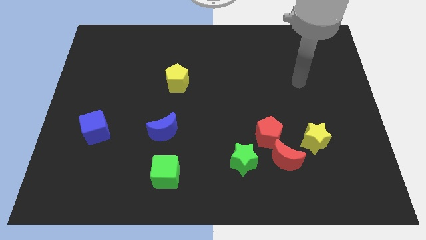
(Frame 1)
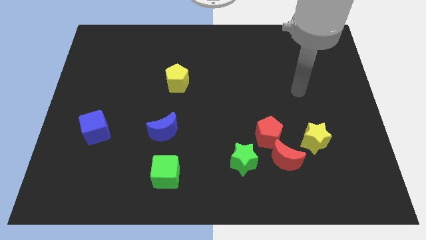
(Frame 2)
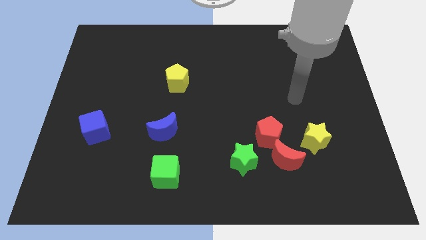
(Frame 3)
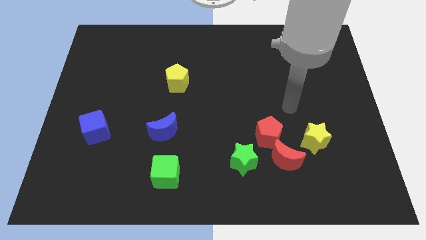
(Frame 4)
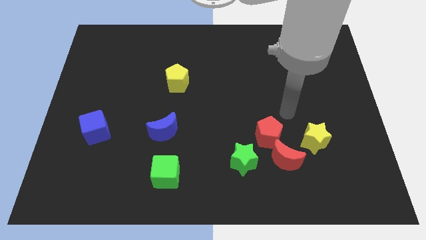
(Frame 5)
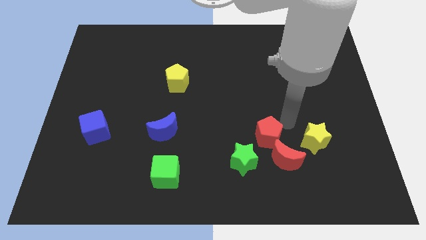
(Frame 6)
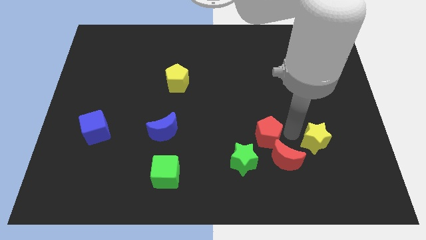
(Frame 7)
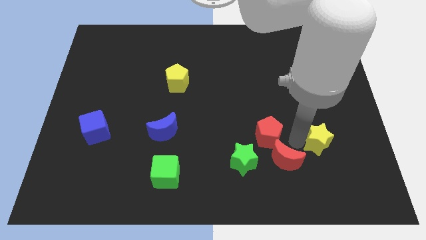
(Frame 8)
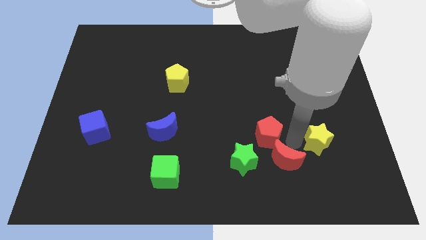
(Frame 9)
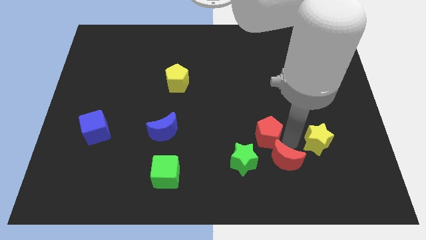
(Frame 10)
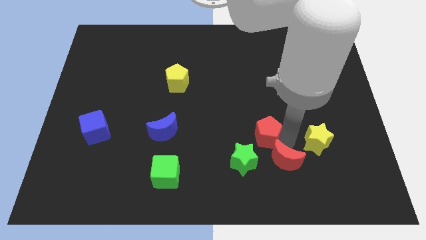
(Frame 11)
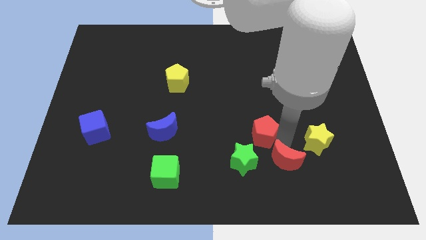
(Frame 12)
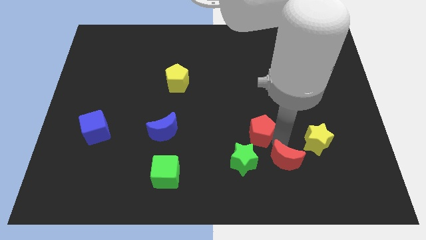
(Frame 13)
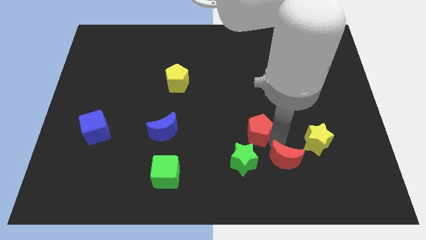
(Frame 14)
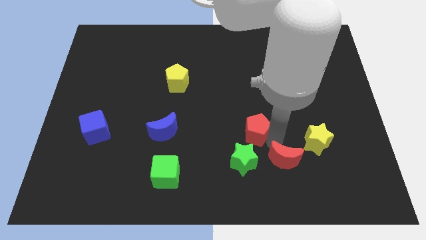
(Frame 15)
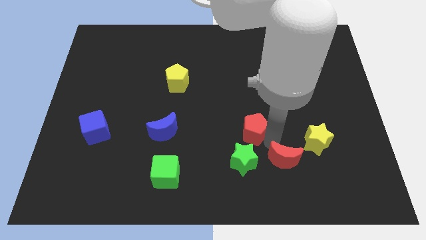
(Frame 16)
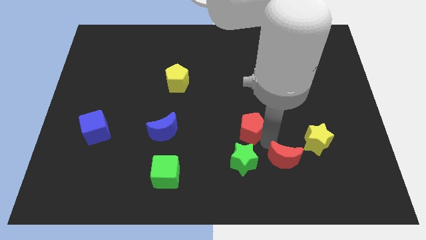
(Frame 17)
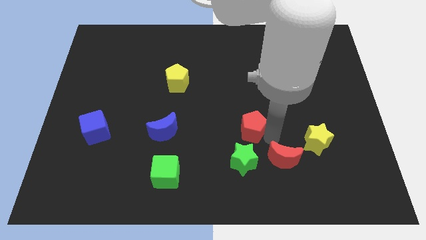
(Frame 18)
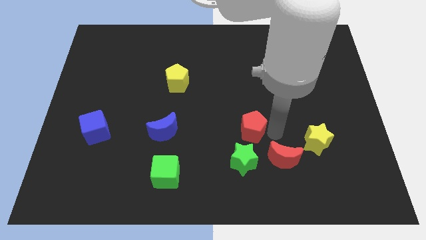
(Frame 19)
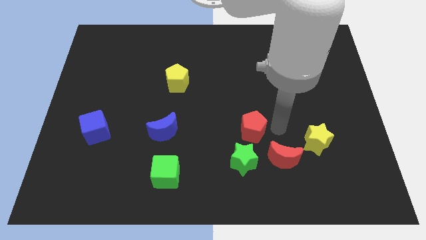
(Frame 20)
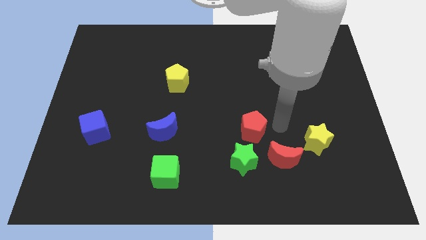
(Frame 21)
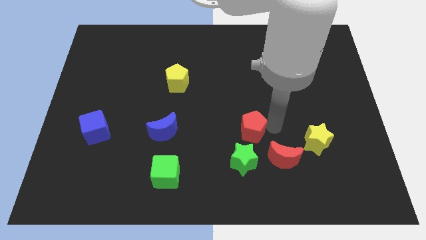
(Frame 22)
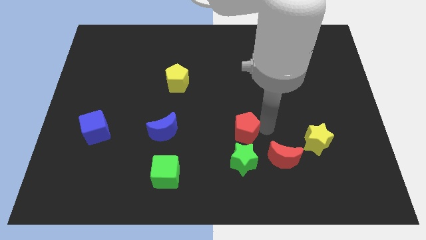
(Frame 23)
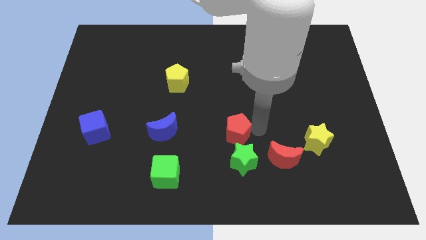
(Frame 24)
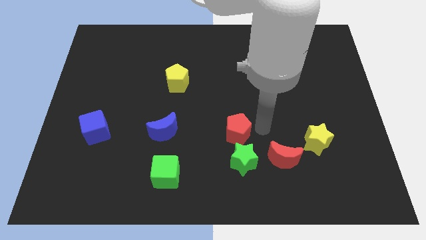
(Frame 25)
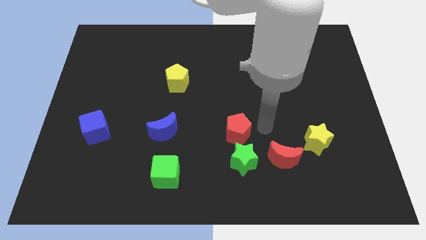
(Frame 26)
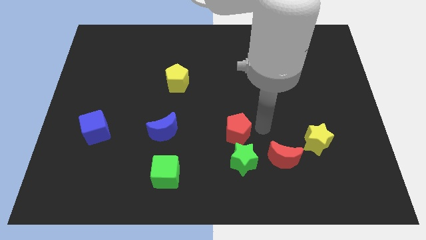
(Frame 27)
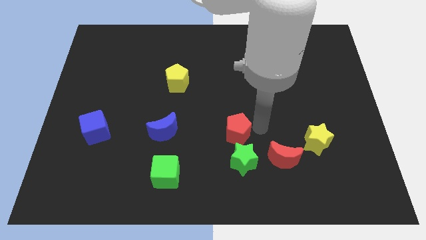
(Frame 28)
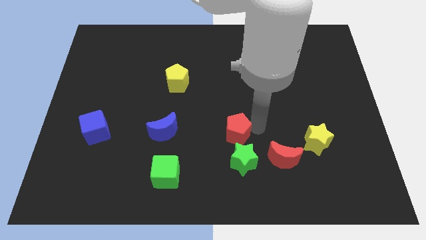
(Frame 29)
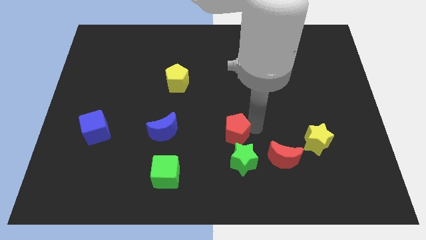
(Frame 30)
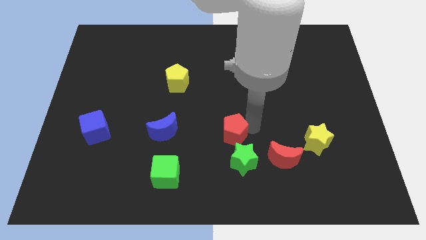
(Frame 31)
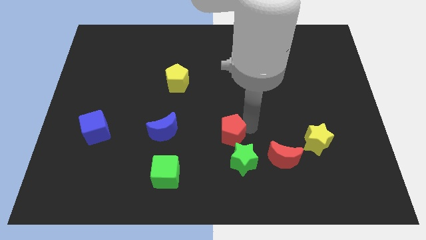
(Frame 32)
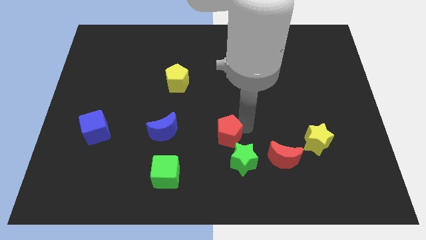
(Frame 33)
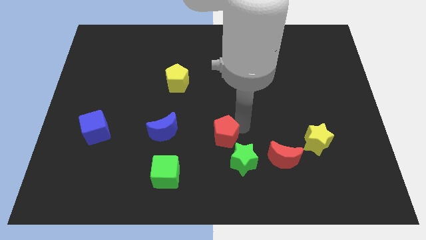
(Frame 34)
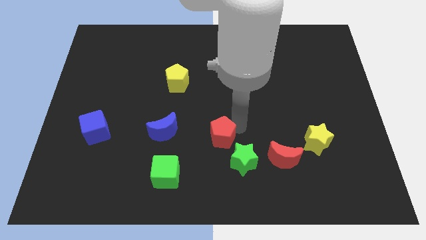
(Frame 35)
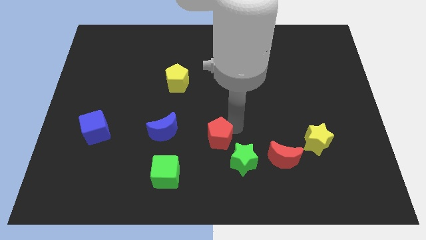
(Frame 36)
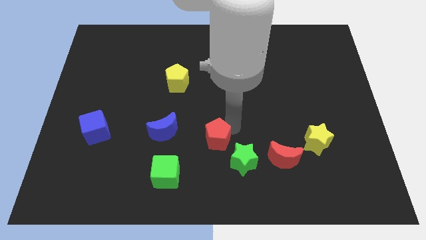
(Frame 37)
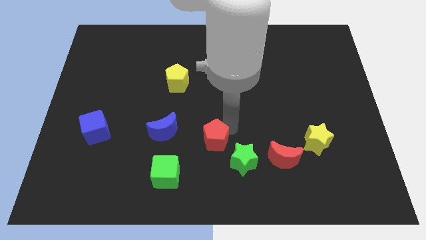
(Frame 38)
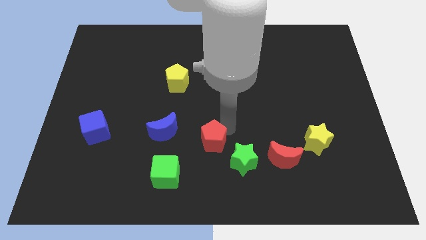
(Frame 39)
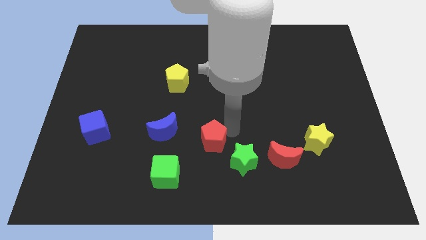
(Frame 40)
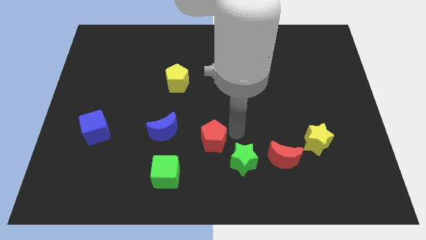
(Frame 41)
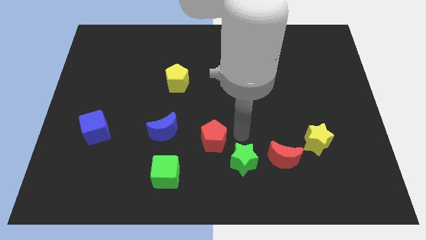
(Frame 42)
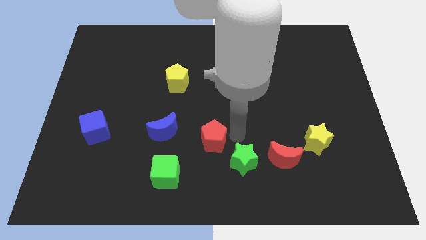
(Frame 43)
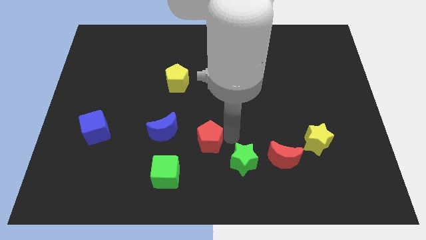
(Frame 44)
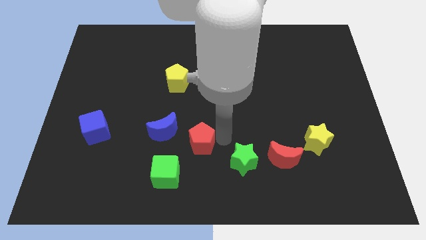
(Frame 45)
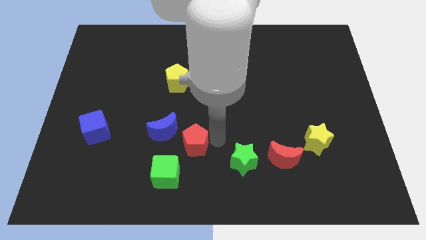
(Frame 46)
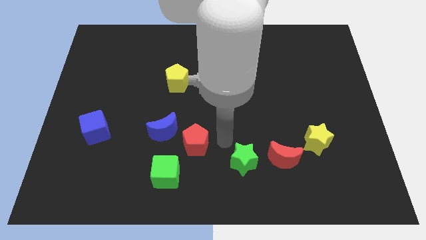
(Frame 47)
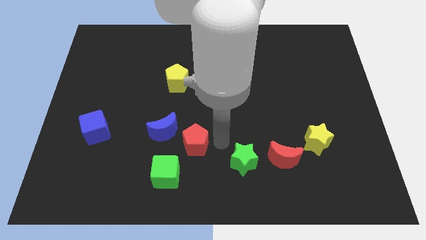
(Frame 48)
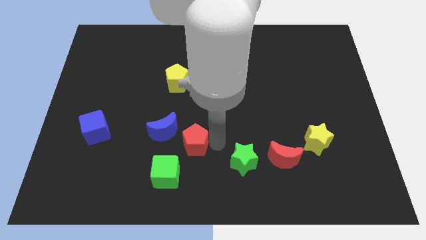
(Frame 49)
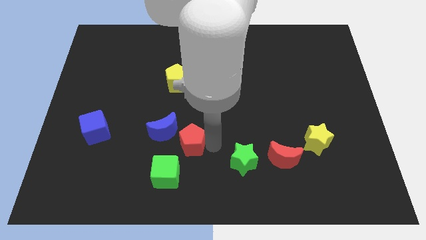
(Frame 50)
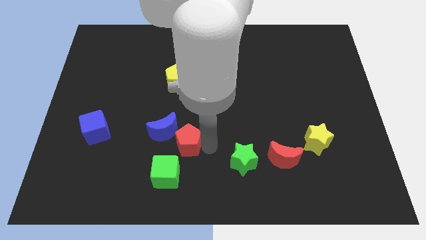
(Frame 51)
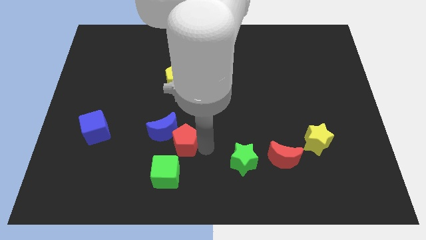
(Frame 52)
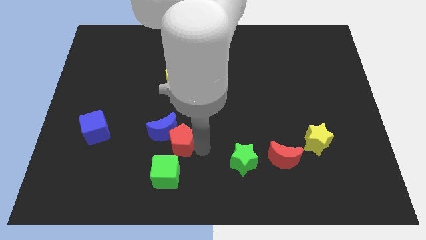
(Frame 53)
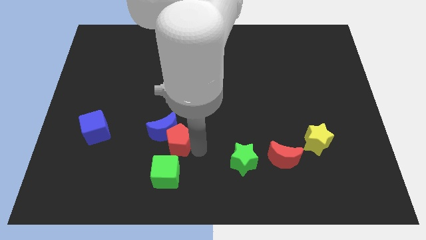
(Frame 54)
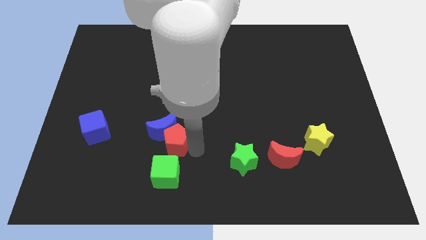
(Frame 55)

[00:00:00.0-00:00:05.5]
push the red pentagon left

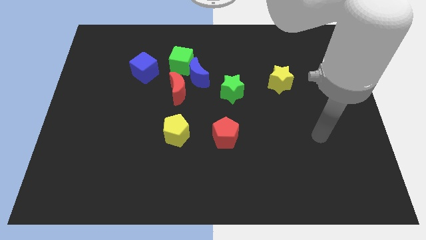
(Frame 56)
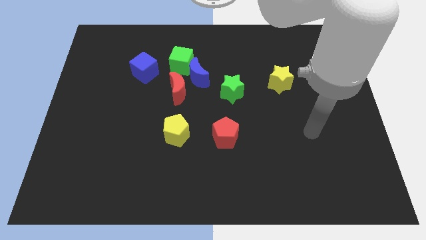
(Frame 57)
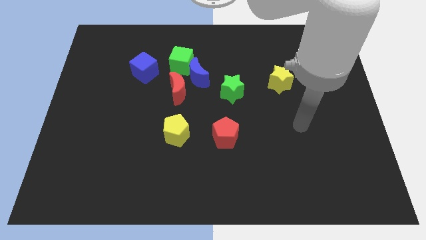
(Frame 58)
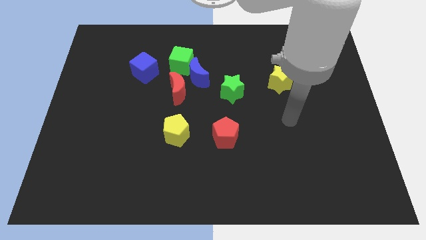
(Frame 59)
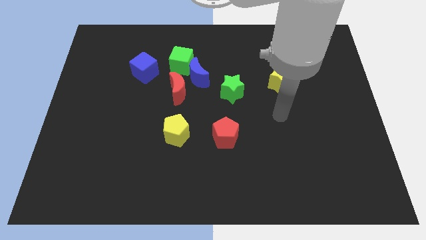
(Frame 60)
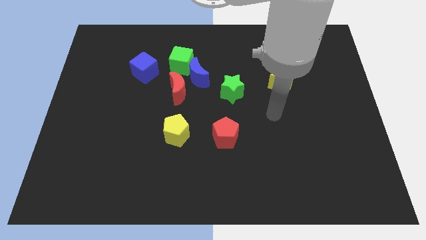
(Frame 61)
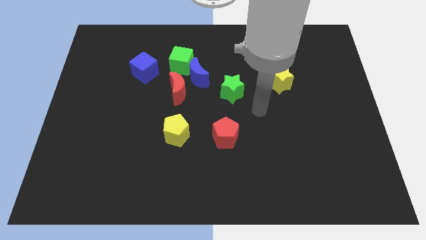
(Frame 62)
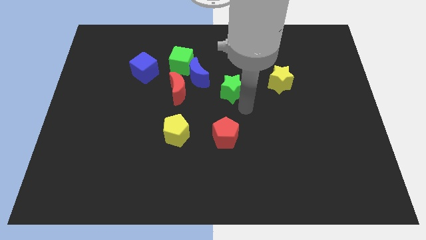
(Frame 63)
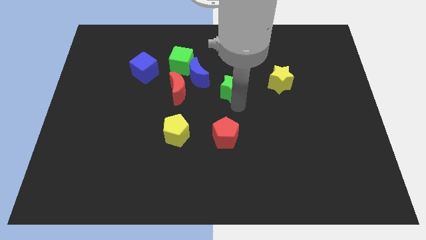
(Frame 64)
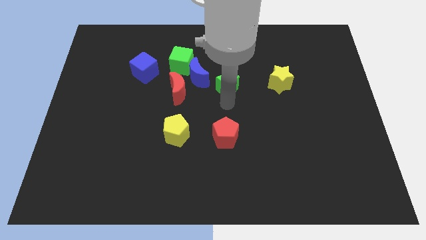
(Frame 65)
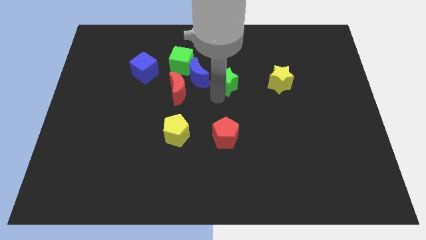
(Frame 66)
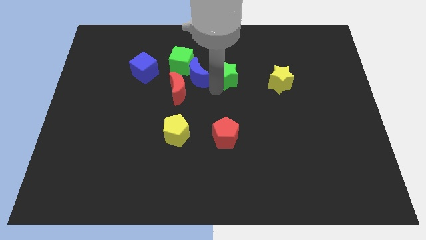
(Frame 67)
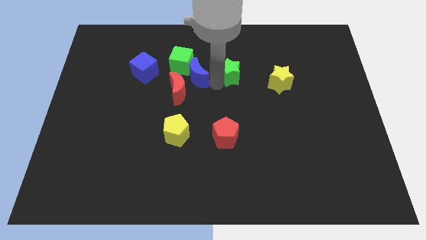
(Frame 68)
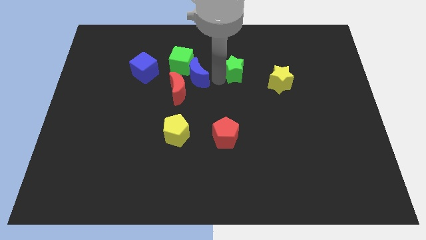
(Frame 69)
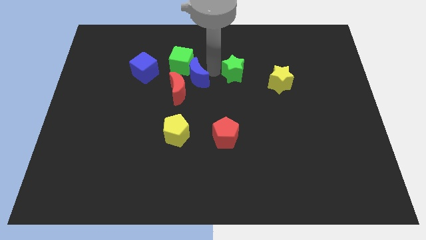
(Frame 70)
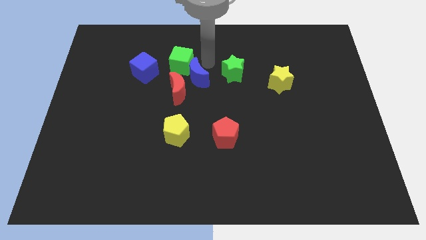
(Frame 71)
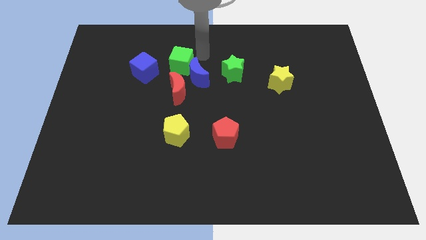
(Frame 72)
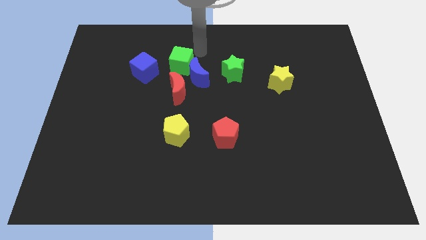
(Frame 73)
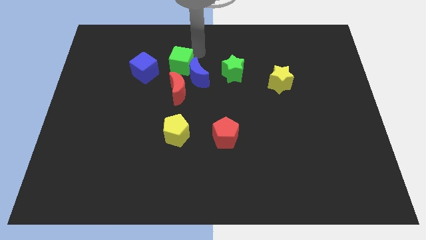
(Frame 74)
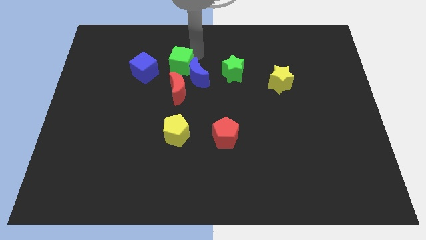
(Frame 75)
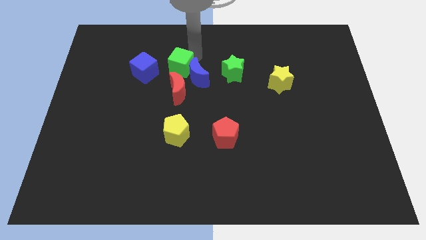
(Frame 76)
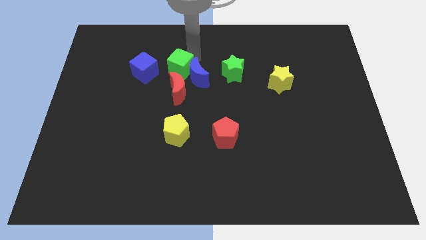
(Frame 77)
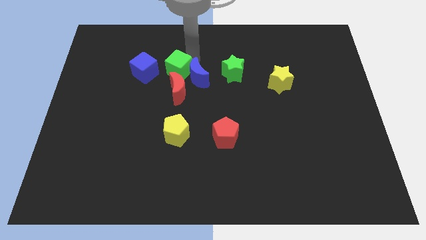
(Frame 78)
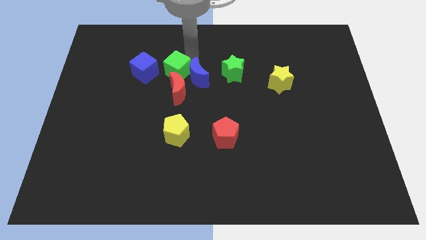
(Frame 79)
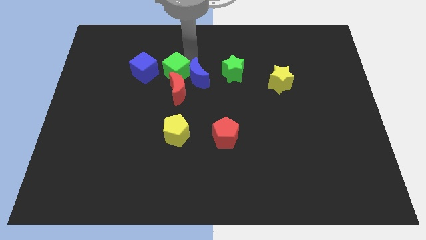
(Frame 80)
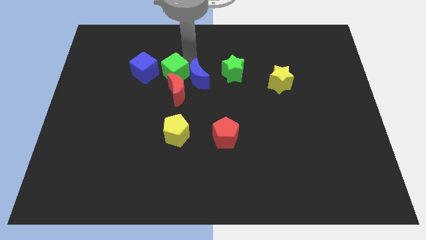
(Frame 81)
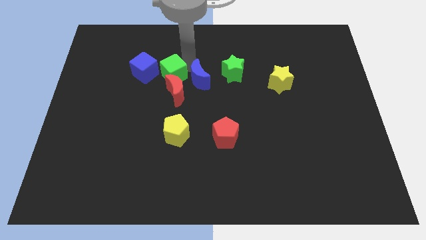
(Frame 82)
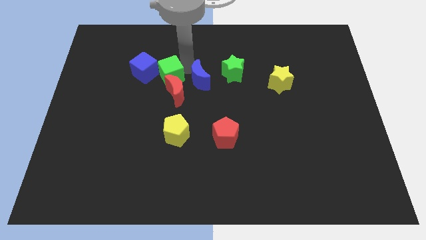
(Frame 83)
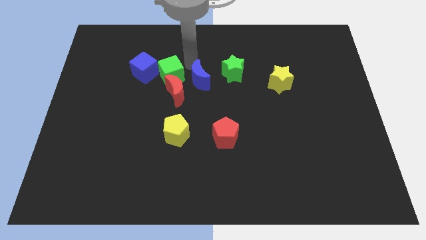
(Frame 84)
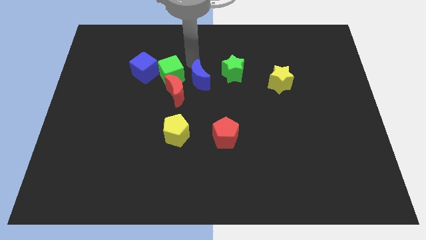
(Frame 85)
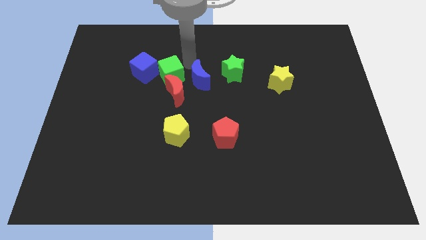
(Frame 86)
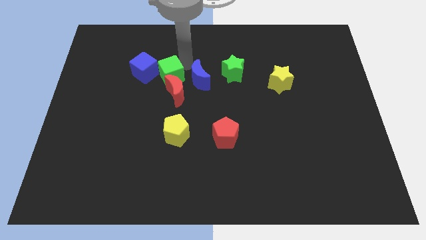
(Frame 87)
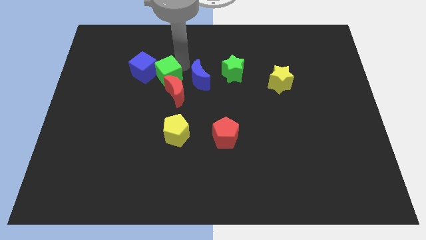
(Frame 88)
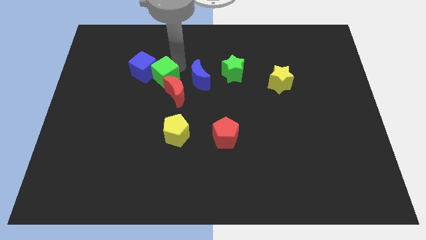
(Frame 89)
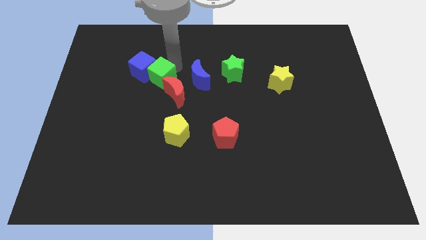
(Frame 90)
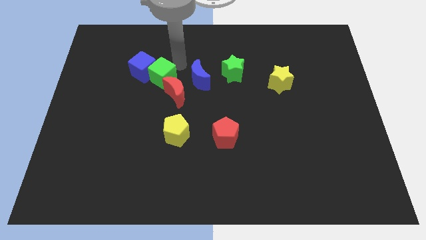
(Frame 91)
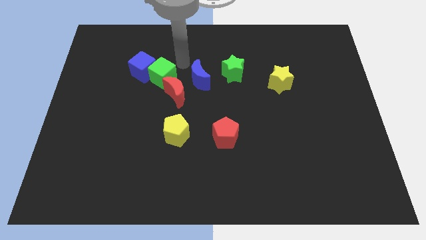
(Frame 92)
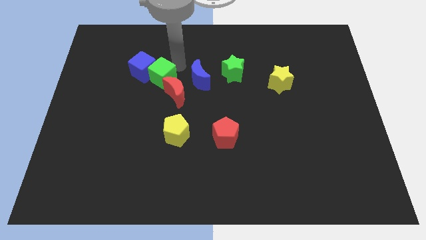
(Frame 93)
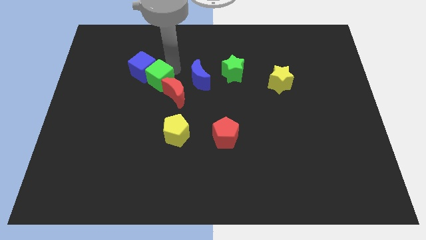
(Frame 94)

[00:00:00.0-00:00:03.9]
slightly move the green cube downwards and then left
